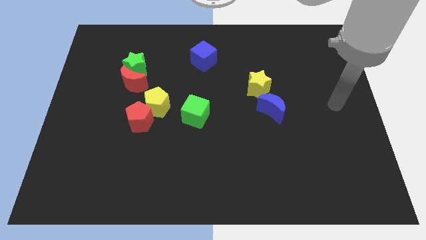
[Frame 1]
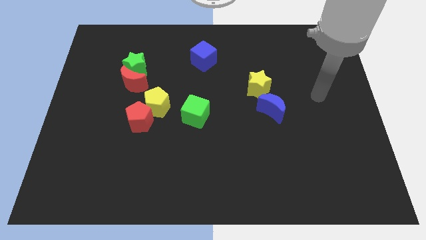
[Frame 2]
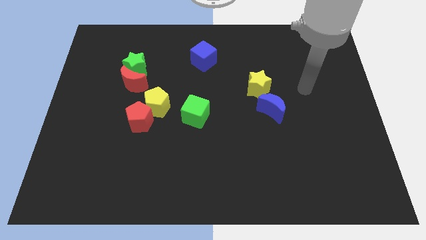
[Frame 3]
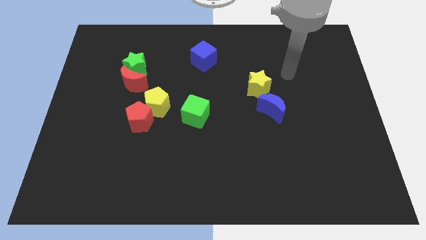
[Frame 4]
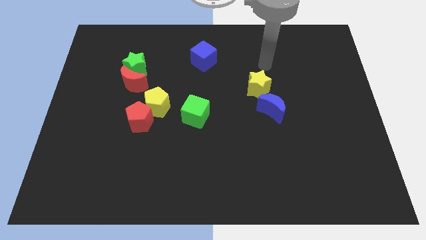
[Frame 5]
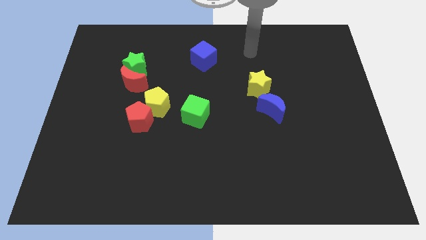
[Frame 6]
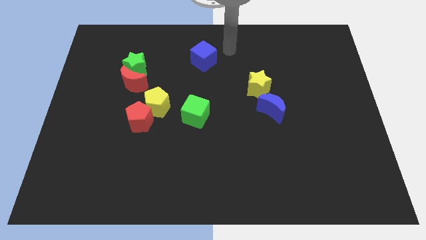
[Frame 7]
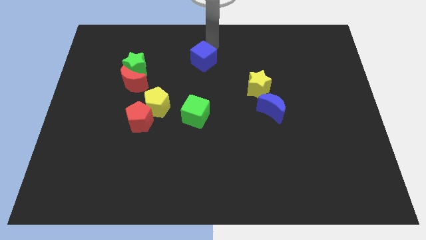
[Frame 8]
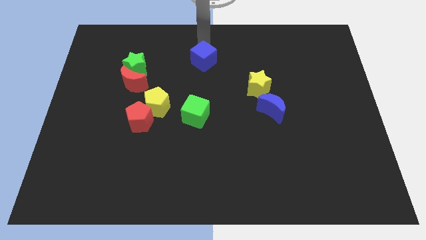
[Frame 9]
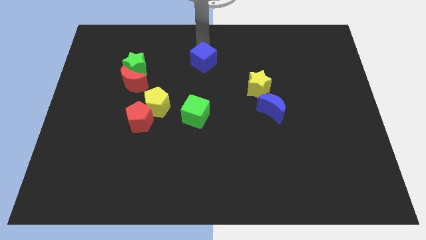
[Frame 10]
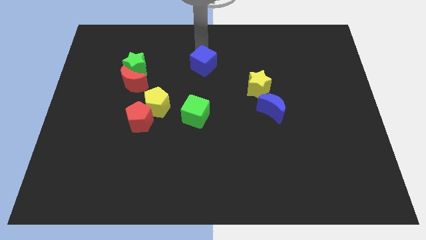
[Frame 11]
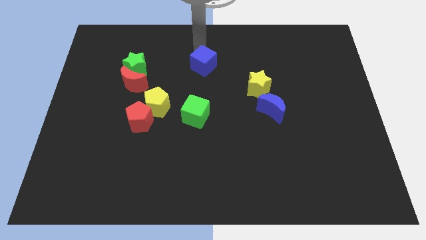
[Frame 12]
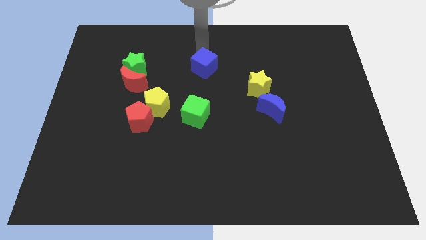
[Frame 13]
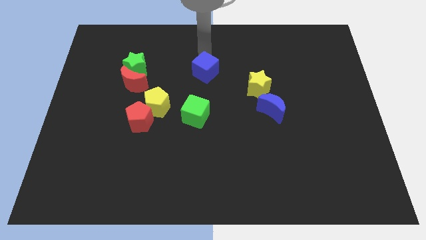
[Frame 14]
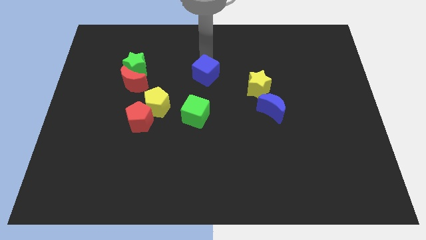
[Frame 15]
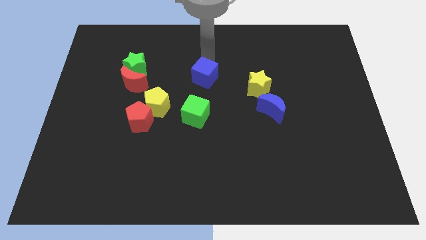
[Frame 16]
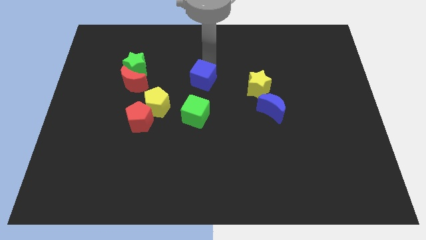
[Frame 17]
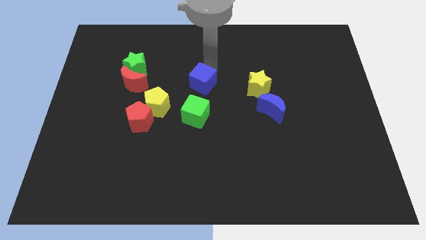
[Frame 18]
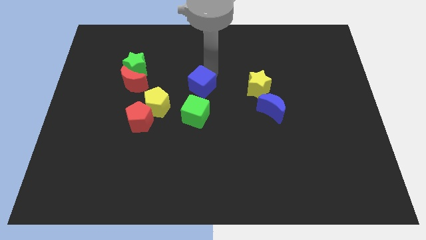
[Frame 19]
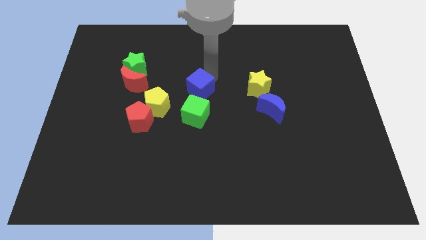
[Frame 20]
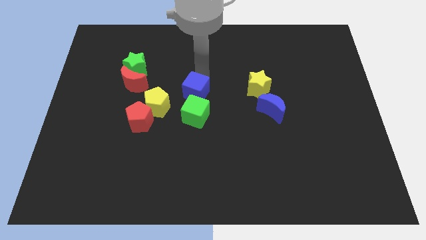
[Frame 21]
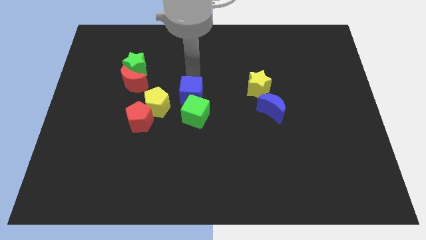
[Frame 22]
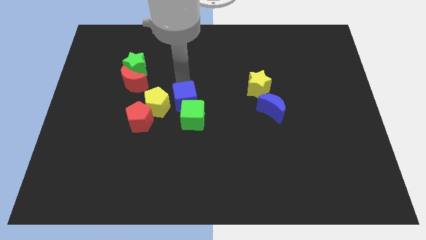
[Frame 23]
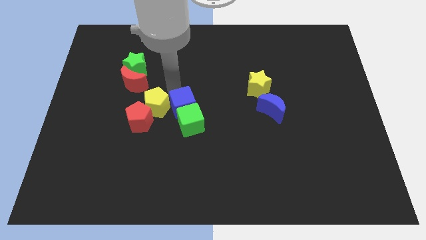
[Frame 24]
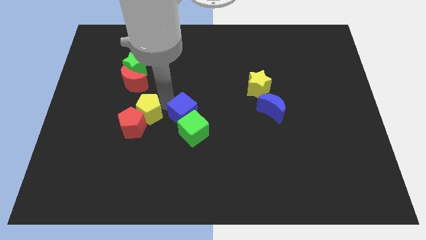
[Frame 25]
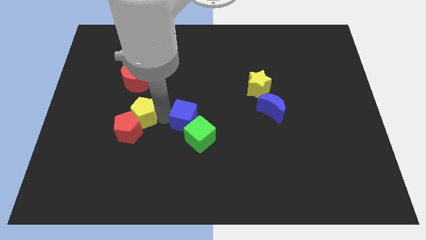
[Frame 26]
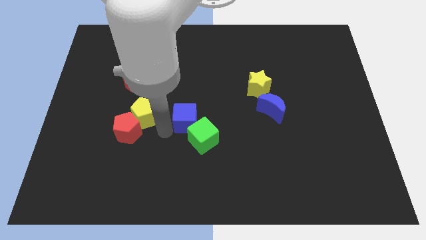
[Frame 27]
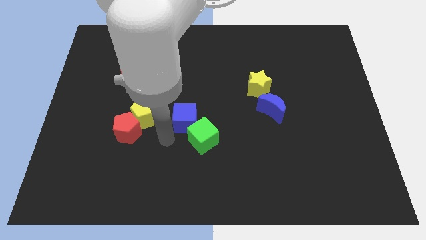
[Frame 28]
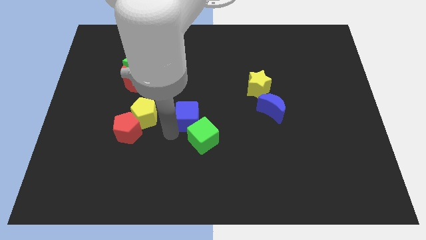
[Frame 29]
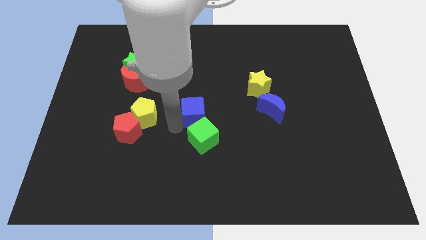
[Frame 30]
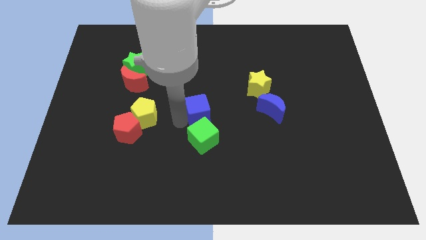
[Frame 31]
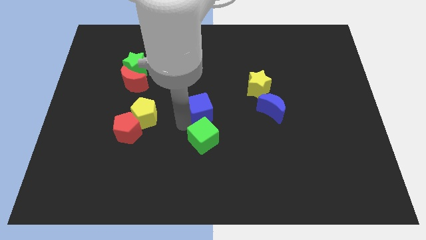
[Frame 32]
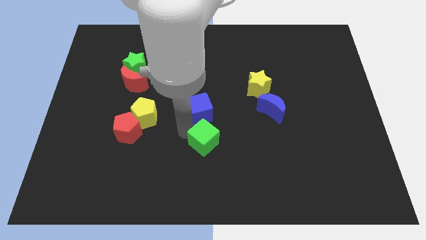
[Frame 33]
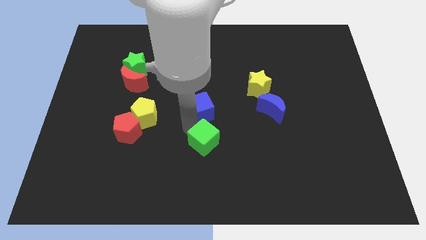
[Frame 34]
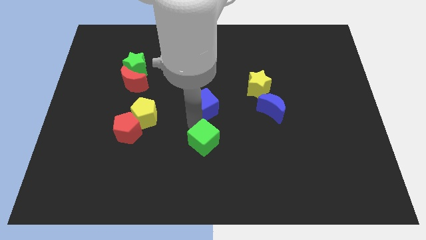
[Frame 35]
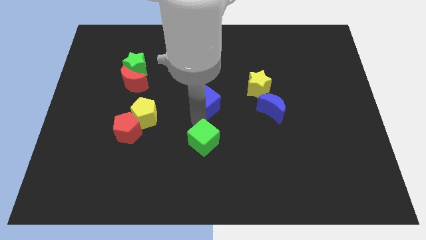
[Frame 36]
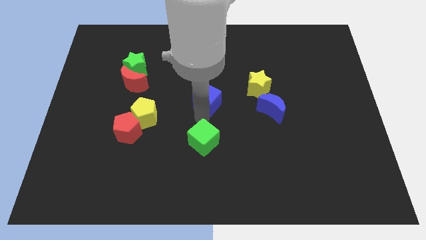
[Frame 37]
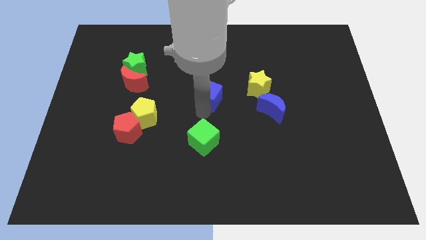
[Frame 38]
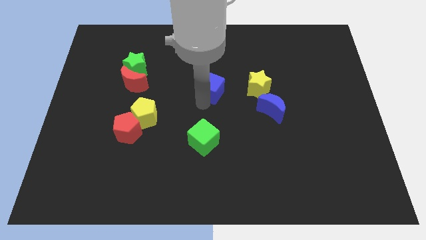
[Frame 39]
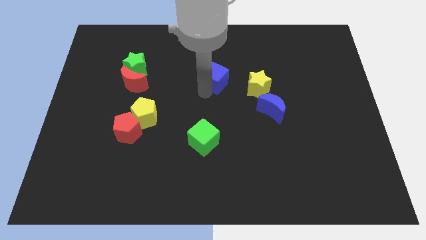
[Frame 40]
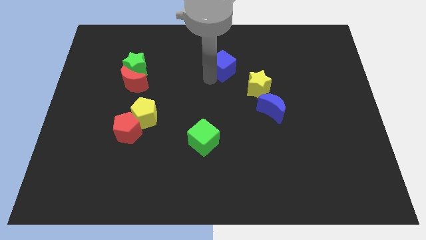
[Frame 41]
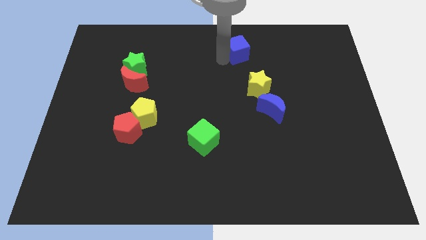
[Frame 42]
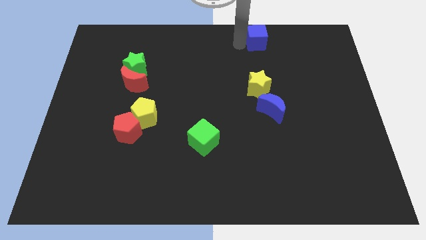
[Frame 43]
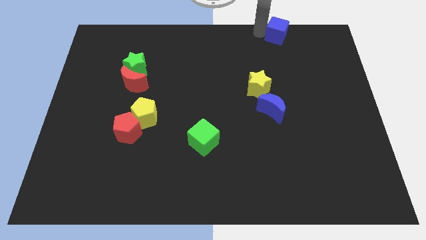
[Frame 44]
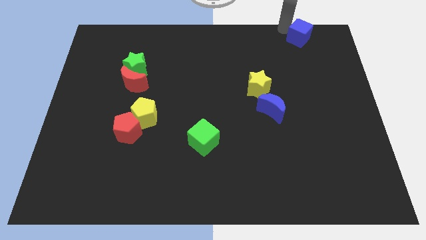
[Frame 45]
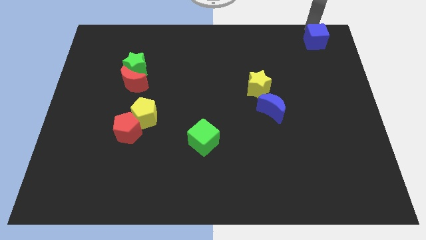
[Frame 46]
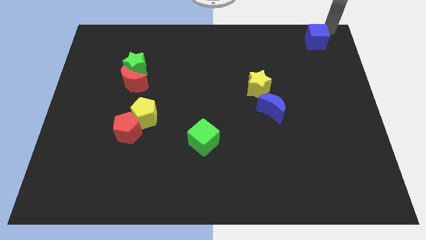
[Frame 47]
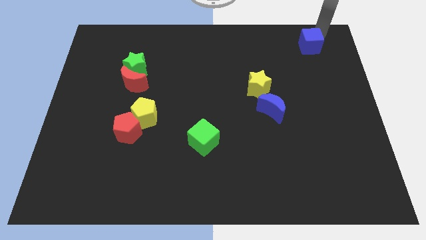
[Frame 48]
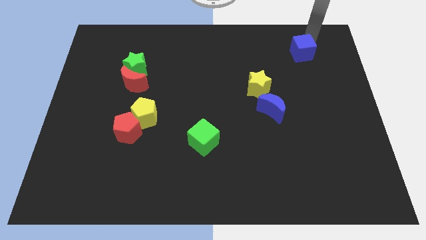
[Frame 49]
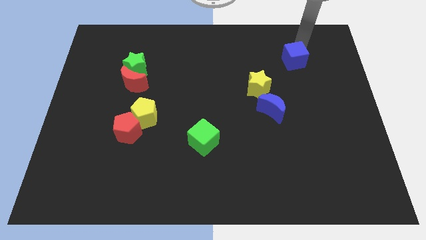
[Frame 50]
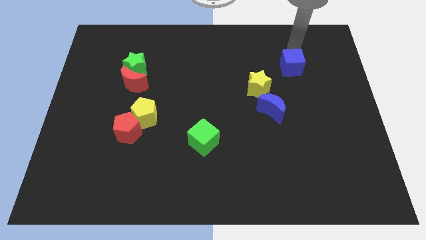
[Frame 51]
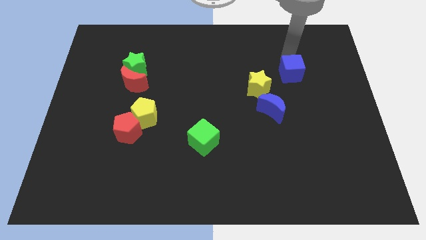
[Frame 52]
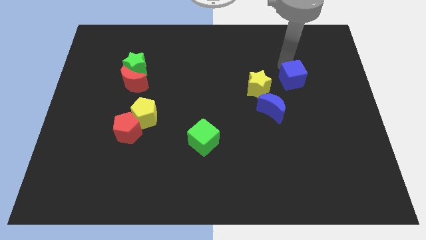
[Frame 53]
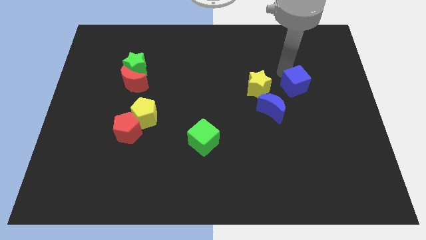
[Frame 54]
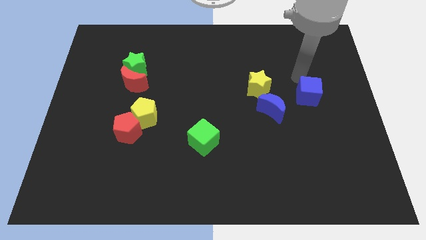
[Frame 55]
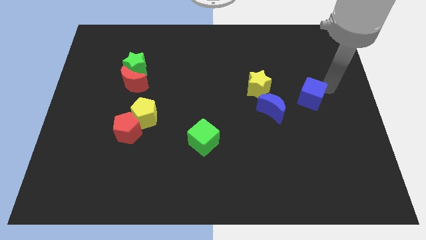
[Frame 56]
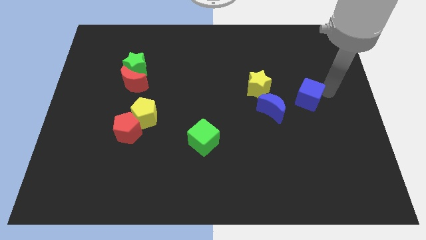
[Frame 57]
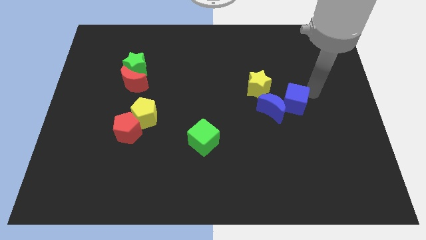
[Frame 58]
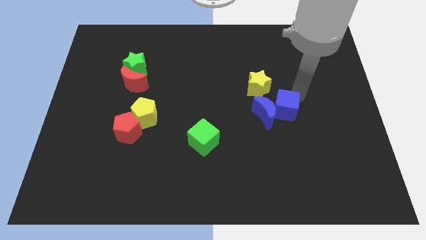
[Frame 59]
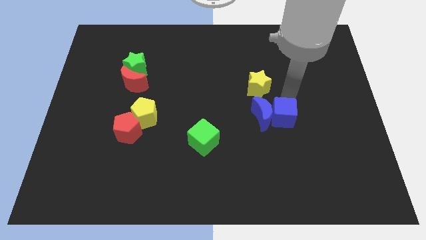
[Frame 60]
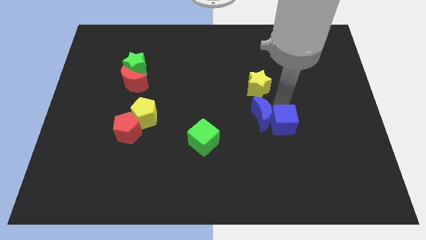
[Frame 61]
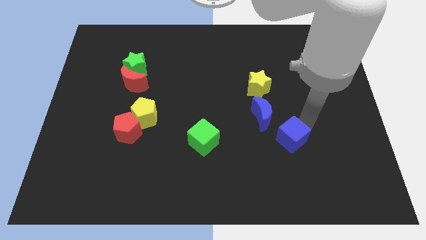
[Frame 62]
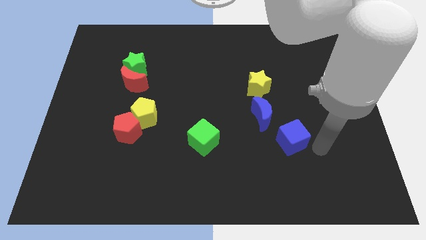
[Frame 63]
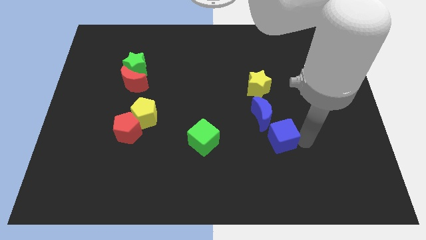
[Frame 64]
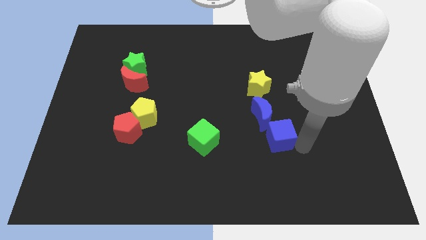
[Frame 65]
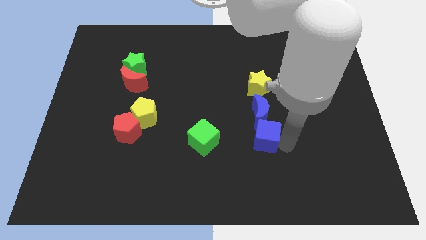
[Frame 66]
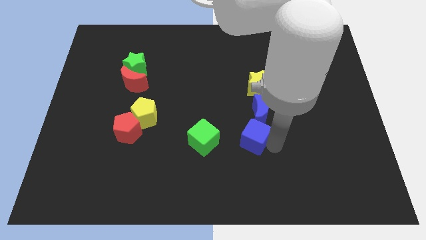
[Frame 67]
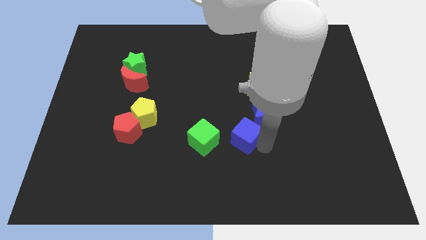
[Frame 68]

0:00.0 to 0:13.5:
push the blue cube downwards

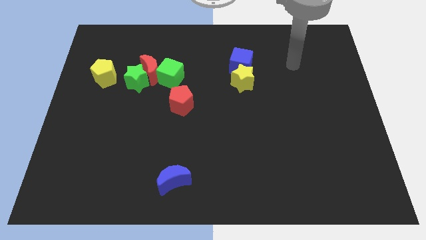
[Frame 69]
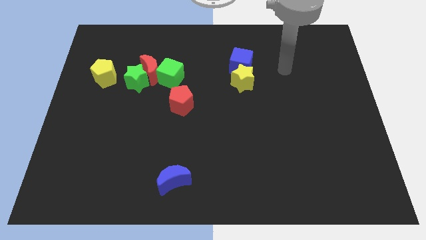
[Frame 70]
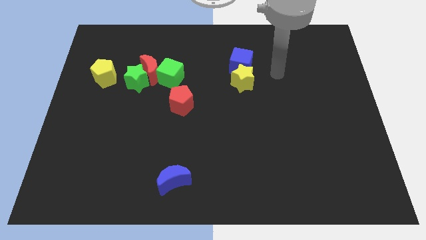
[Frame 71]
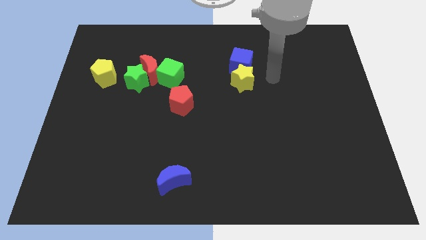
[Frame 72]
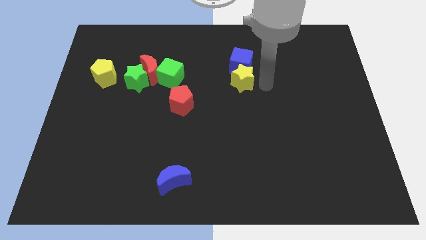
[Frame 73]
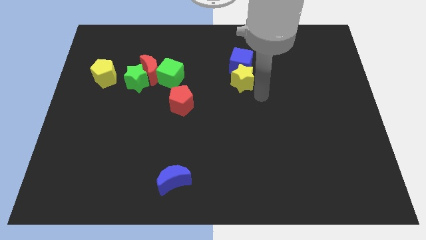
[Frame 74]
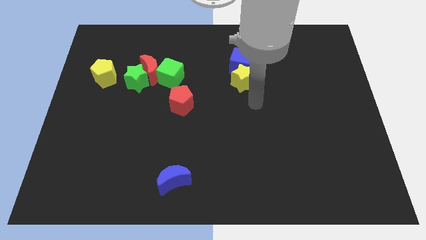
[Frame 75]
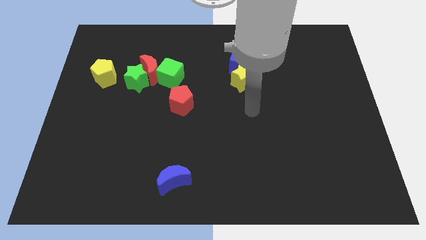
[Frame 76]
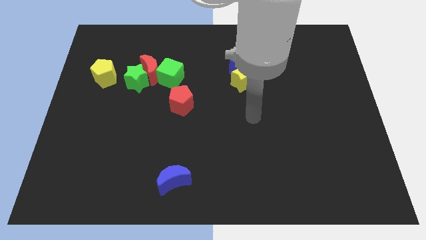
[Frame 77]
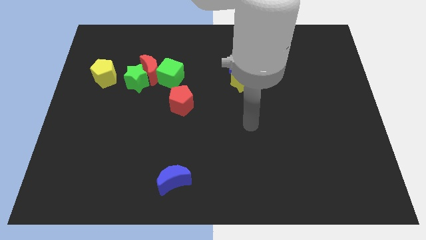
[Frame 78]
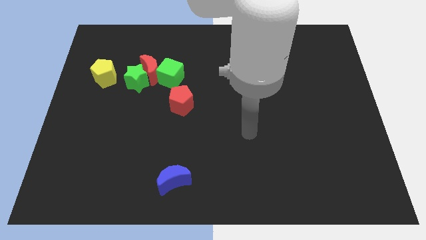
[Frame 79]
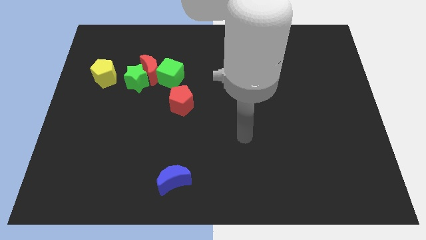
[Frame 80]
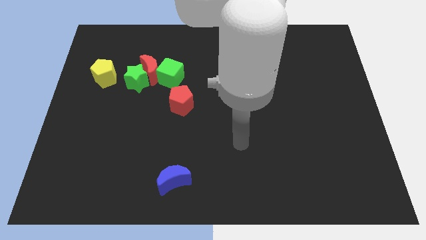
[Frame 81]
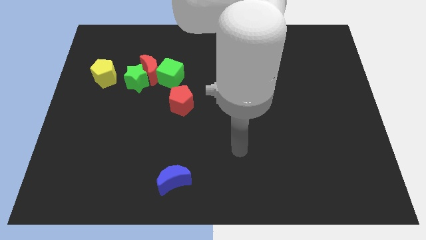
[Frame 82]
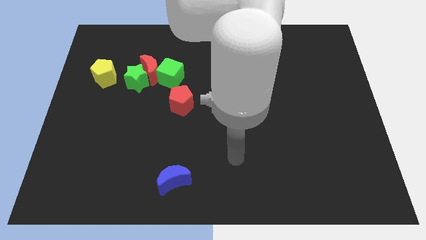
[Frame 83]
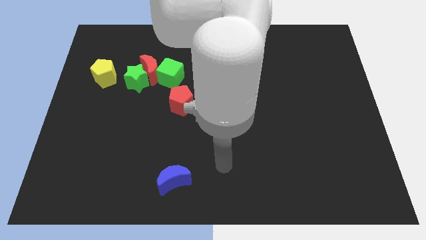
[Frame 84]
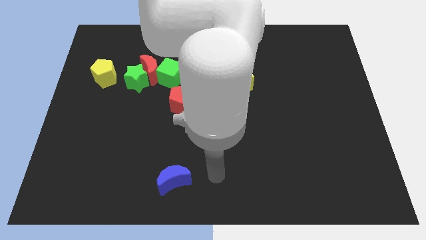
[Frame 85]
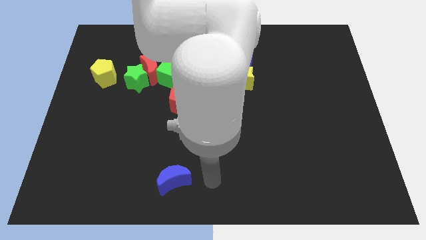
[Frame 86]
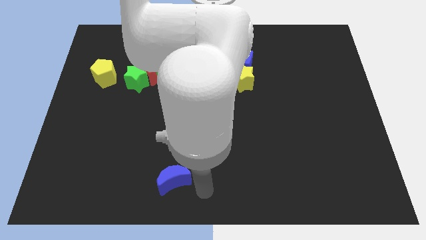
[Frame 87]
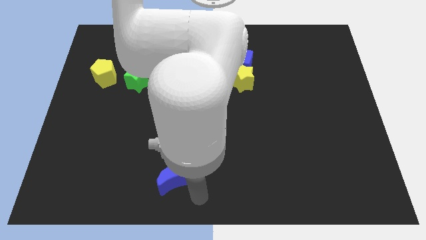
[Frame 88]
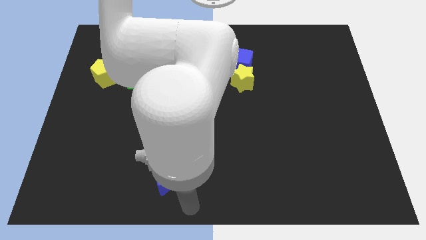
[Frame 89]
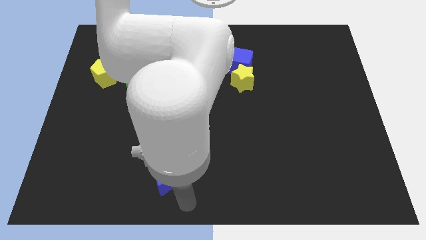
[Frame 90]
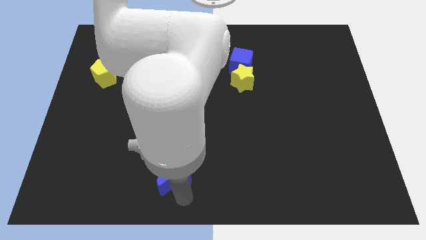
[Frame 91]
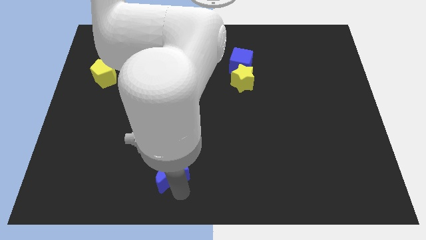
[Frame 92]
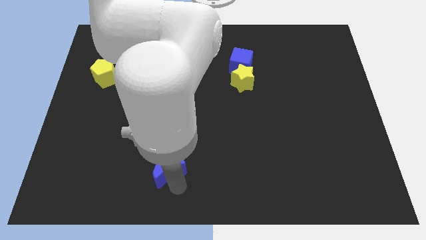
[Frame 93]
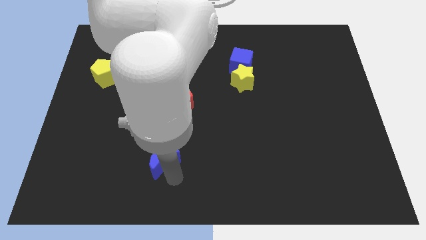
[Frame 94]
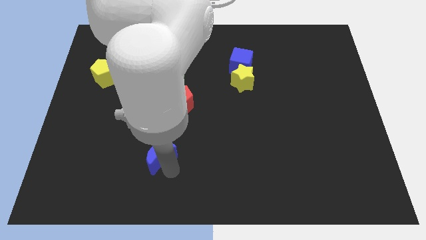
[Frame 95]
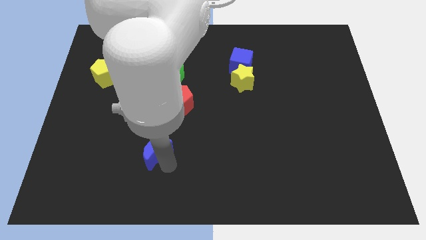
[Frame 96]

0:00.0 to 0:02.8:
slide the blue moon diagonally upwards and to the left somewhat
